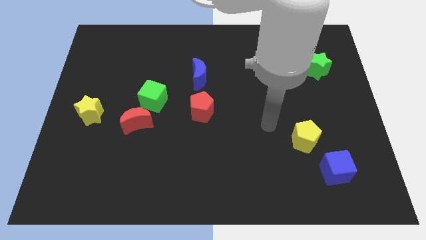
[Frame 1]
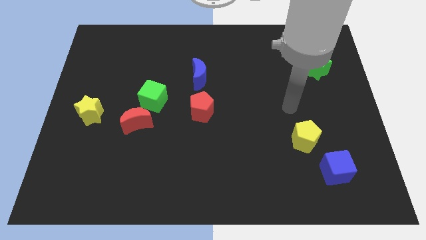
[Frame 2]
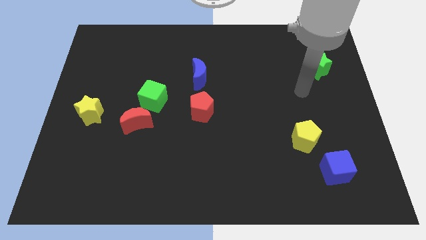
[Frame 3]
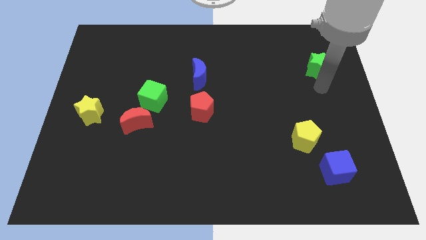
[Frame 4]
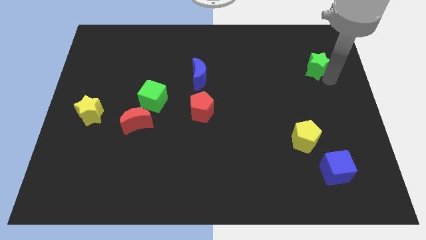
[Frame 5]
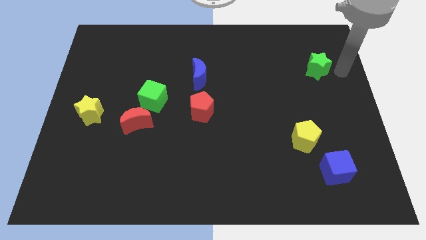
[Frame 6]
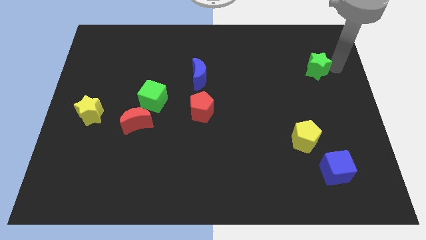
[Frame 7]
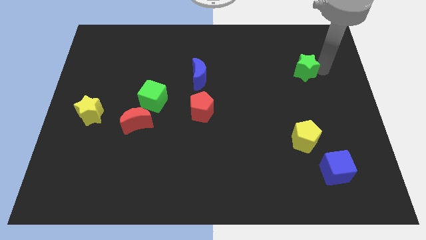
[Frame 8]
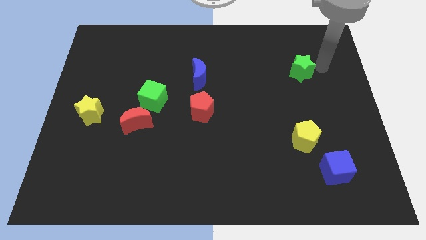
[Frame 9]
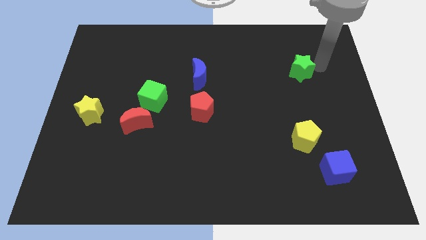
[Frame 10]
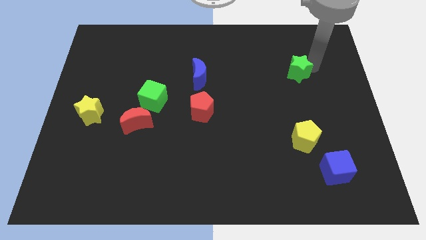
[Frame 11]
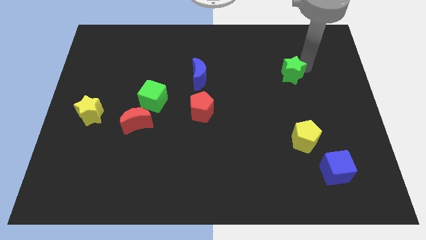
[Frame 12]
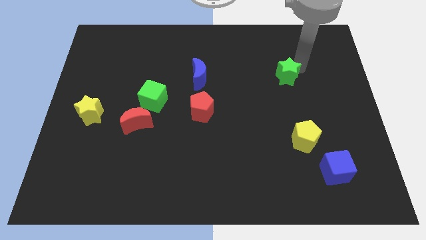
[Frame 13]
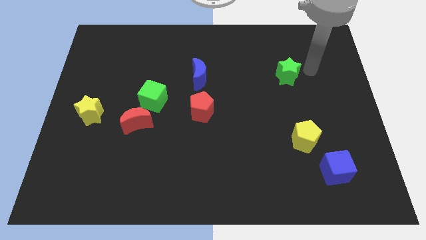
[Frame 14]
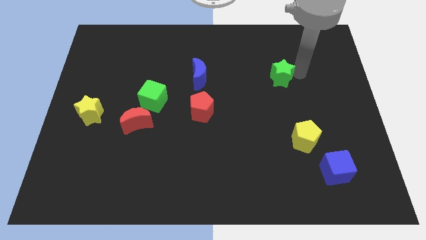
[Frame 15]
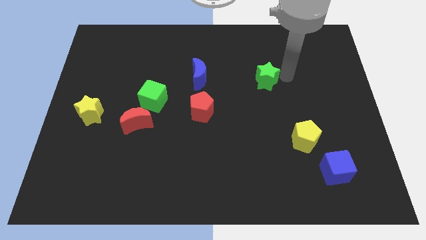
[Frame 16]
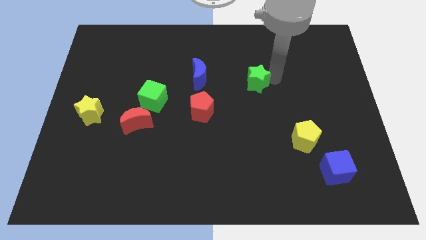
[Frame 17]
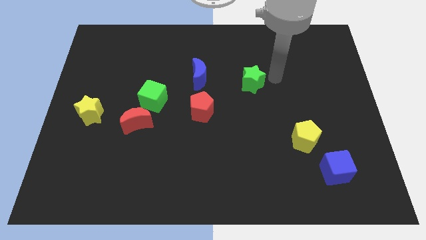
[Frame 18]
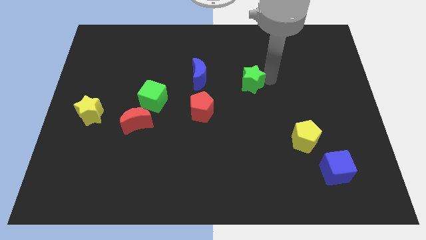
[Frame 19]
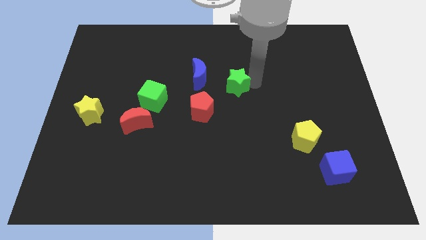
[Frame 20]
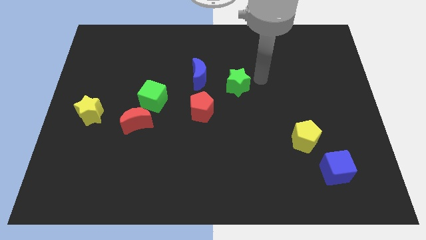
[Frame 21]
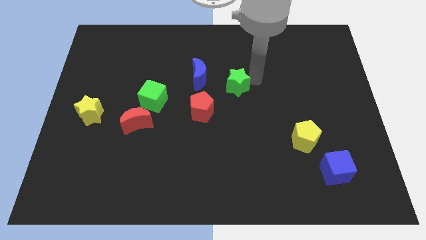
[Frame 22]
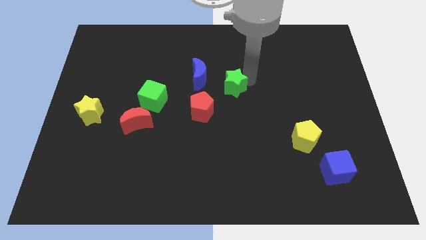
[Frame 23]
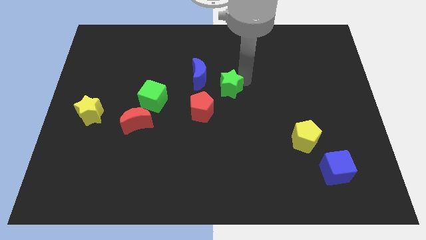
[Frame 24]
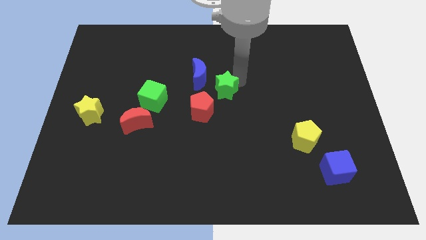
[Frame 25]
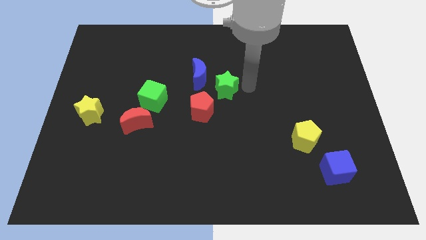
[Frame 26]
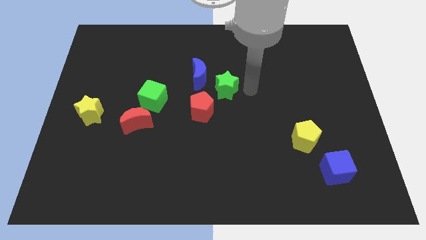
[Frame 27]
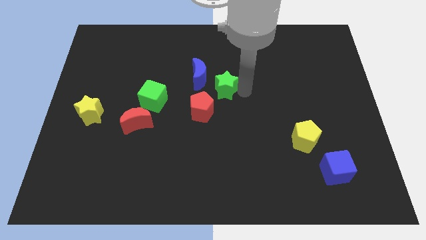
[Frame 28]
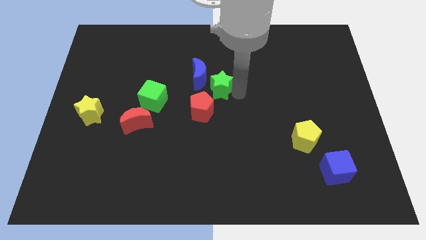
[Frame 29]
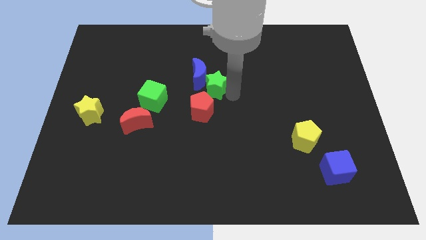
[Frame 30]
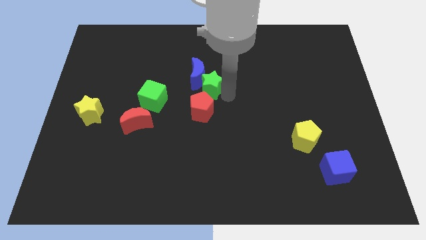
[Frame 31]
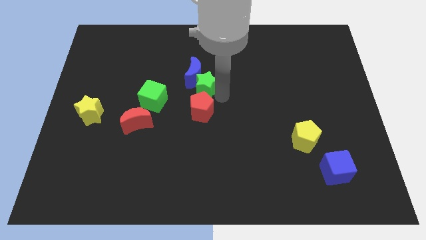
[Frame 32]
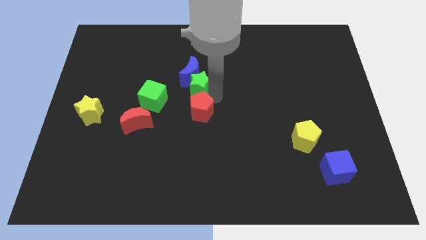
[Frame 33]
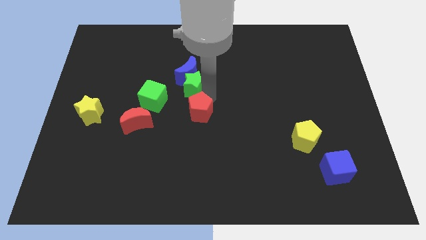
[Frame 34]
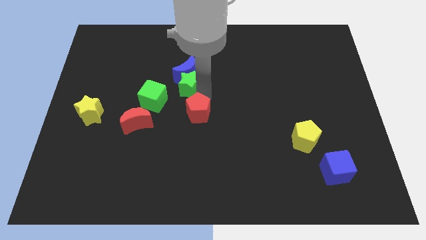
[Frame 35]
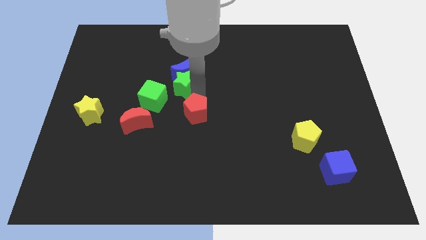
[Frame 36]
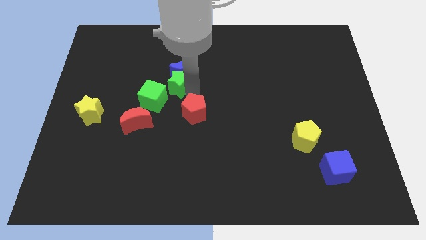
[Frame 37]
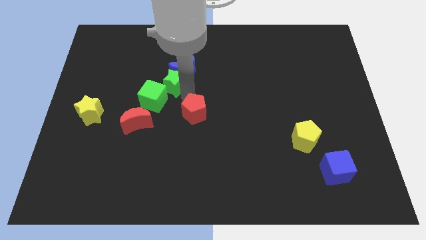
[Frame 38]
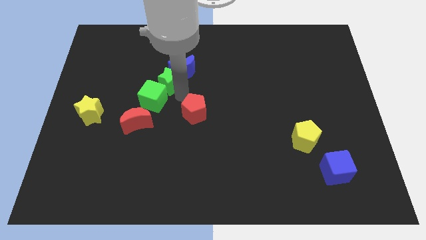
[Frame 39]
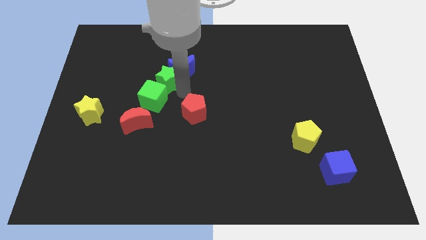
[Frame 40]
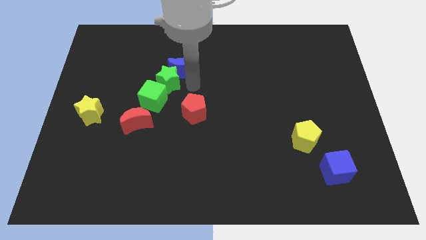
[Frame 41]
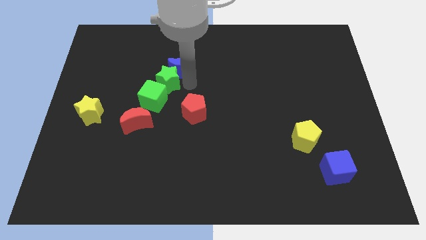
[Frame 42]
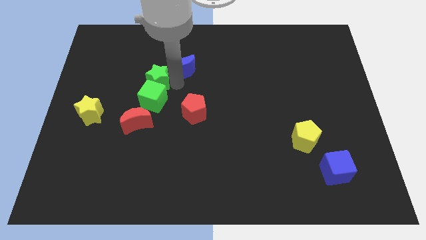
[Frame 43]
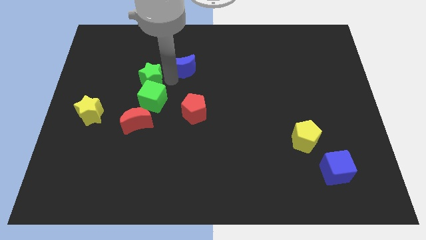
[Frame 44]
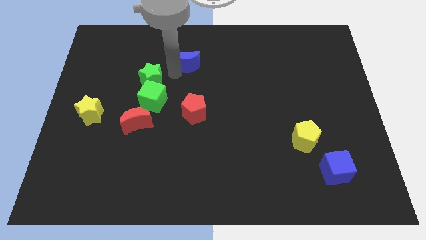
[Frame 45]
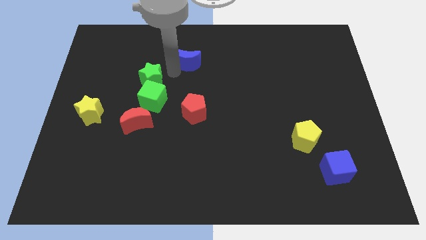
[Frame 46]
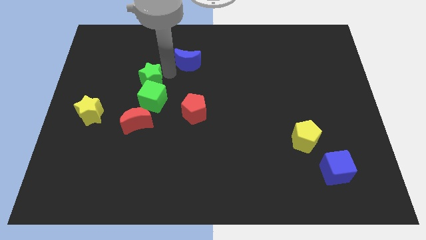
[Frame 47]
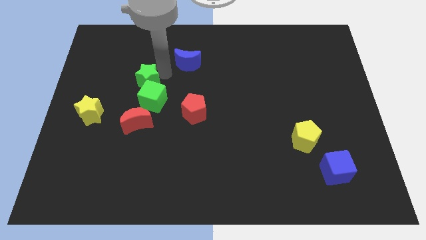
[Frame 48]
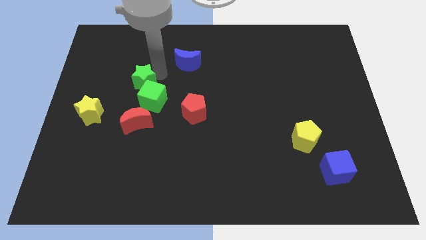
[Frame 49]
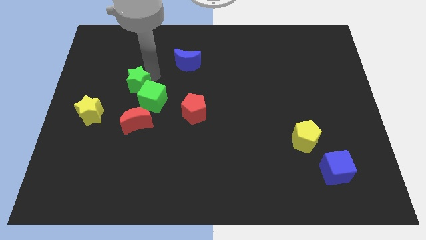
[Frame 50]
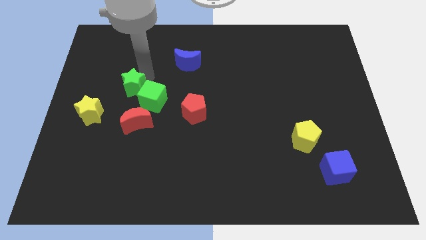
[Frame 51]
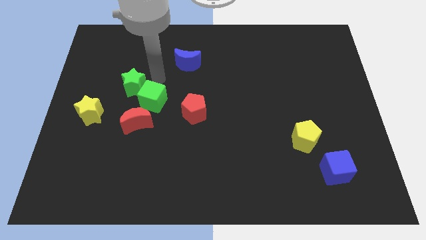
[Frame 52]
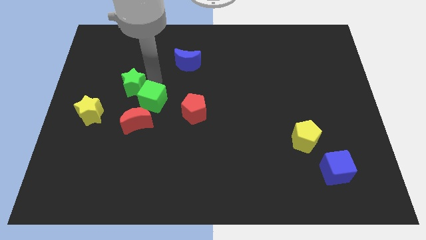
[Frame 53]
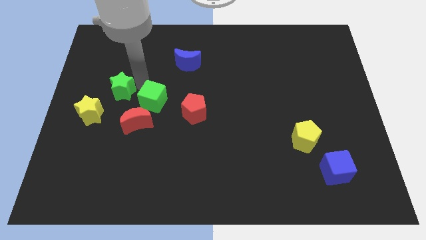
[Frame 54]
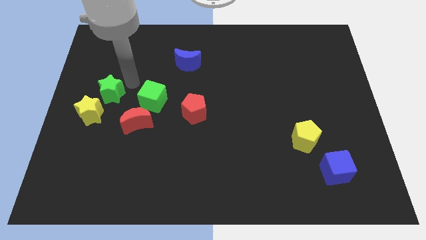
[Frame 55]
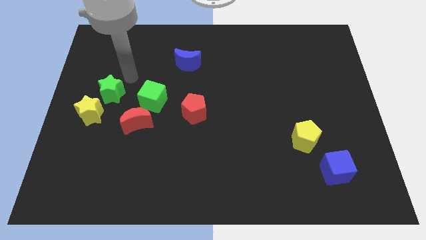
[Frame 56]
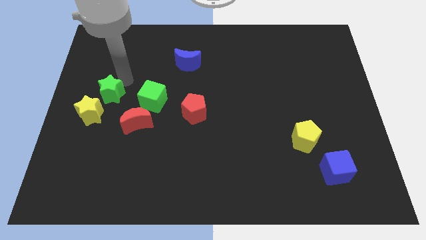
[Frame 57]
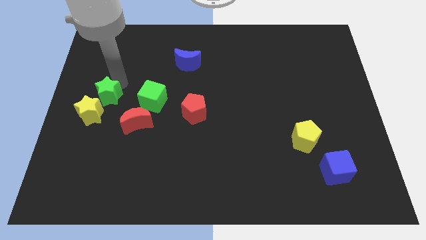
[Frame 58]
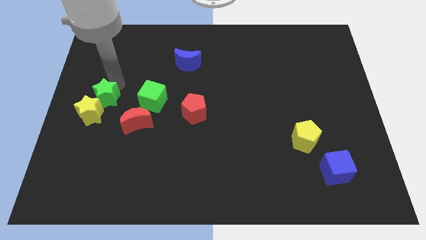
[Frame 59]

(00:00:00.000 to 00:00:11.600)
move the green star to the yellow star

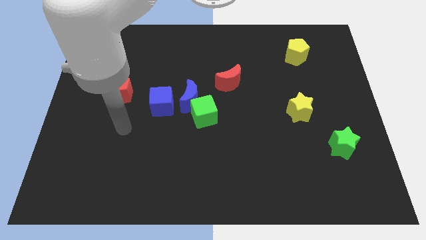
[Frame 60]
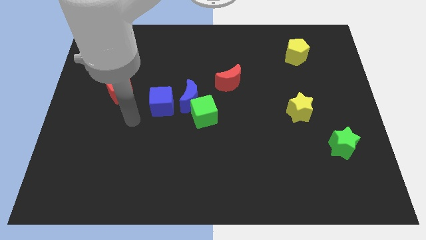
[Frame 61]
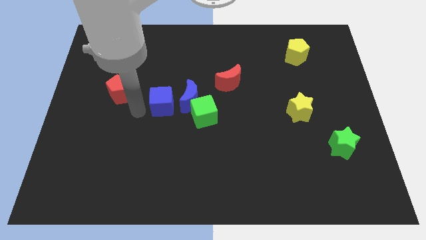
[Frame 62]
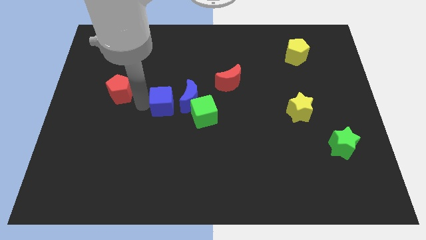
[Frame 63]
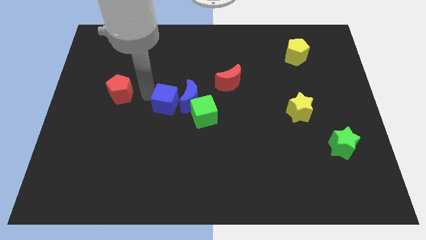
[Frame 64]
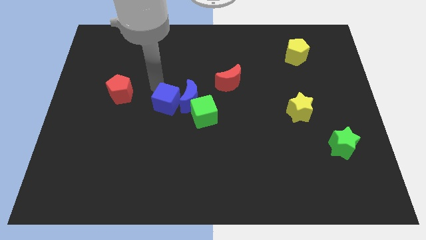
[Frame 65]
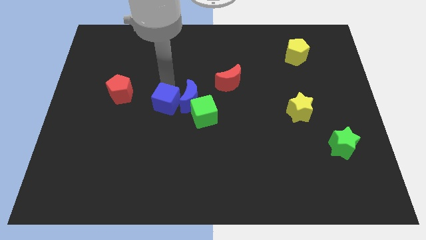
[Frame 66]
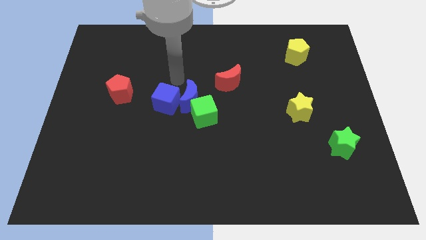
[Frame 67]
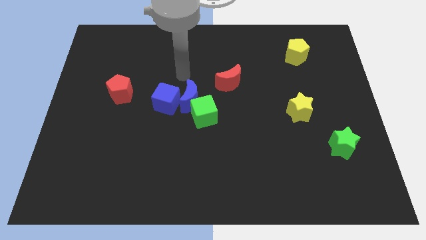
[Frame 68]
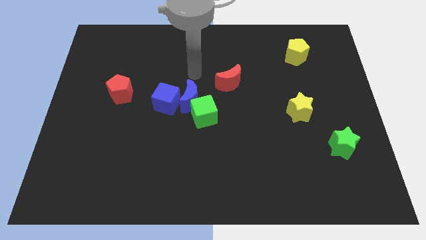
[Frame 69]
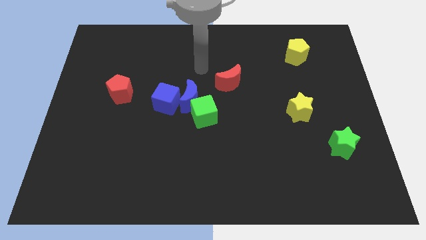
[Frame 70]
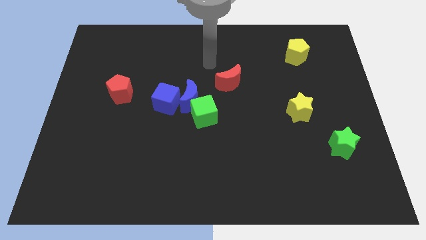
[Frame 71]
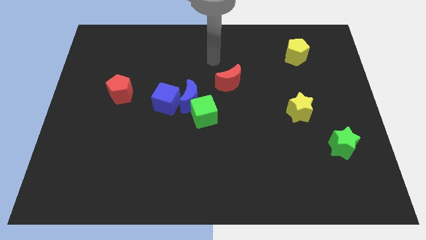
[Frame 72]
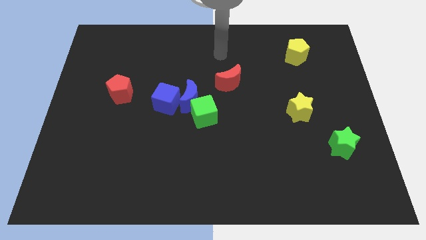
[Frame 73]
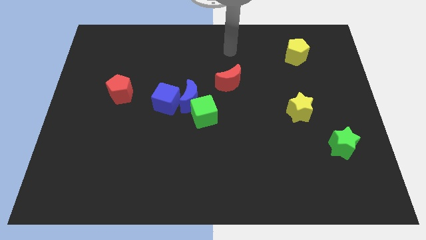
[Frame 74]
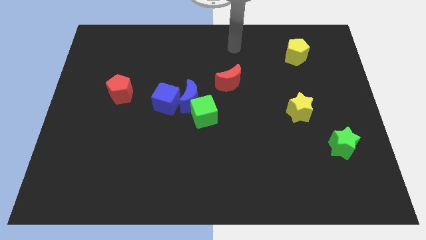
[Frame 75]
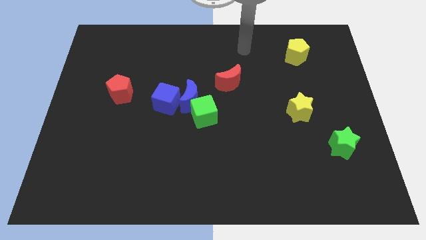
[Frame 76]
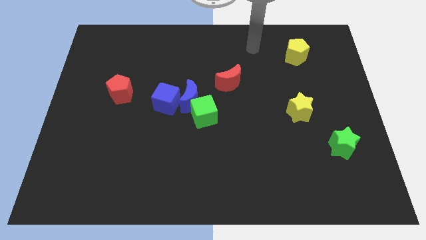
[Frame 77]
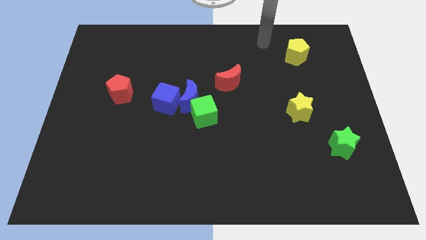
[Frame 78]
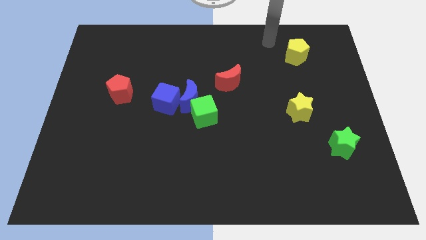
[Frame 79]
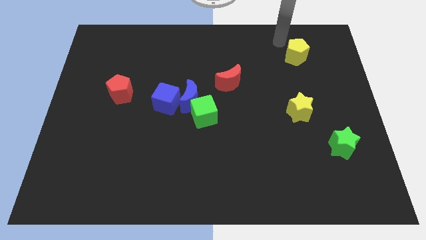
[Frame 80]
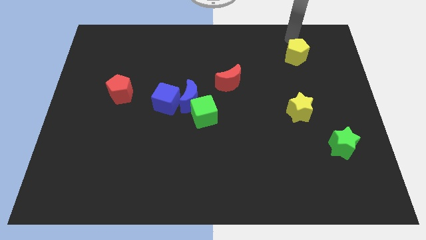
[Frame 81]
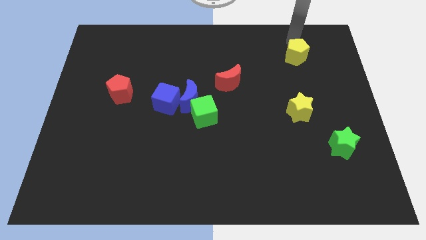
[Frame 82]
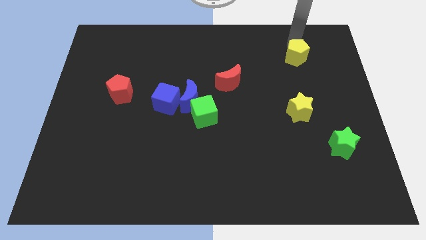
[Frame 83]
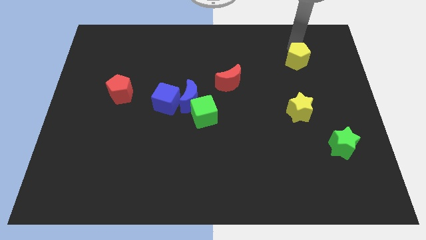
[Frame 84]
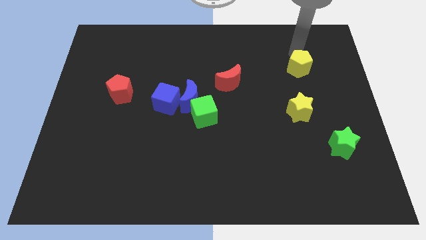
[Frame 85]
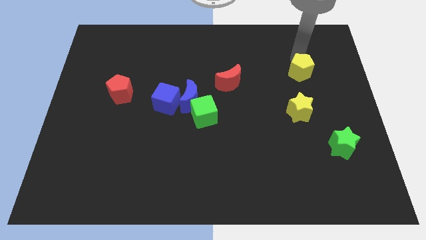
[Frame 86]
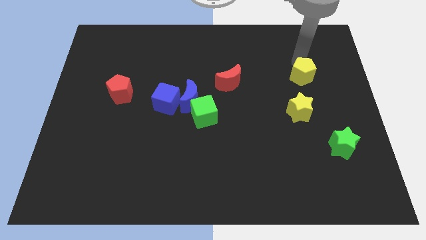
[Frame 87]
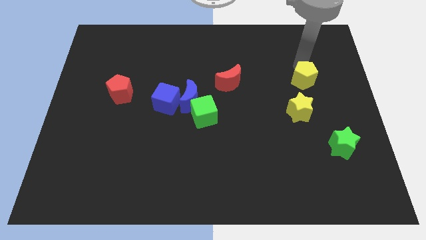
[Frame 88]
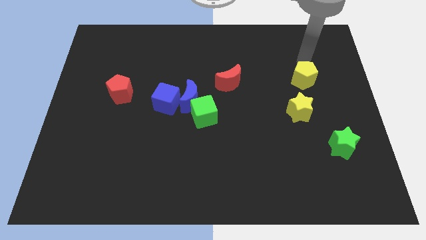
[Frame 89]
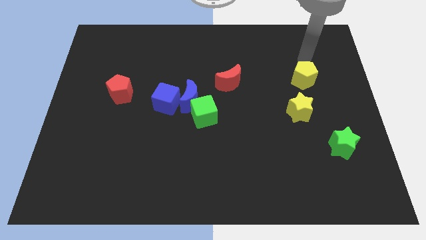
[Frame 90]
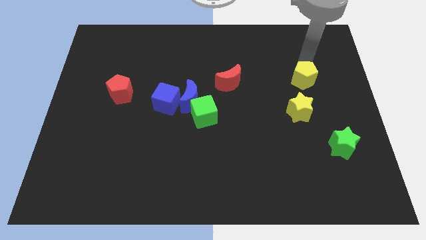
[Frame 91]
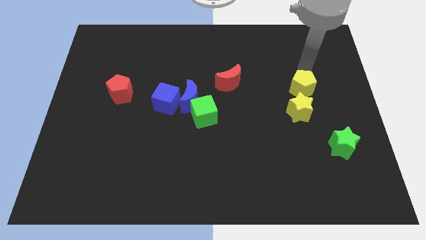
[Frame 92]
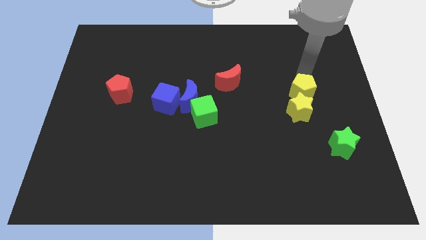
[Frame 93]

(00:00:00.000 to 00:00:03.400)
put the yellow pentagon to the yellow star
